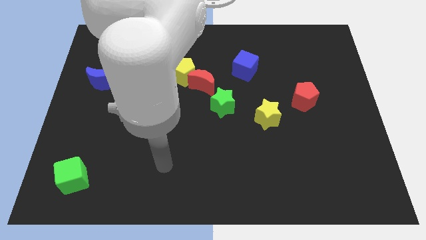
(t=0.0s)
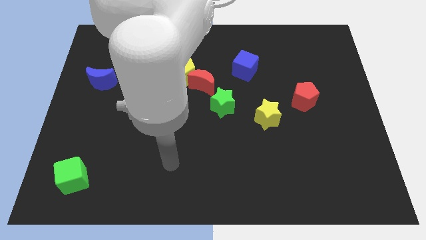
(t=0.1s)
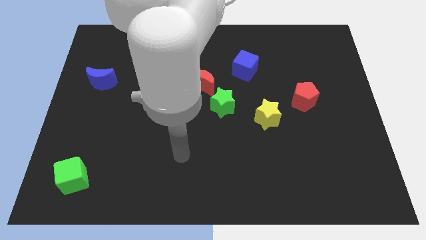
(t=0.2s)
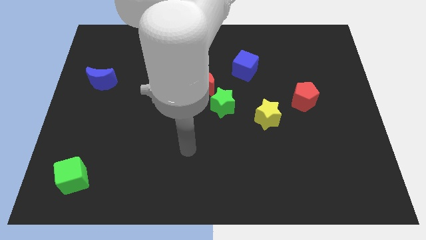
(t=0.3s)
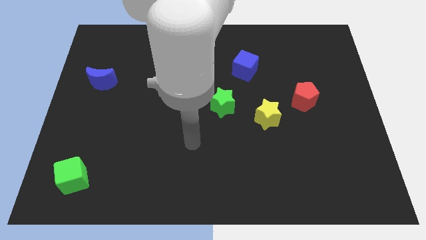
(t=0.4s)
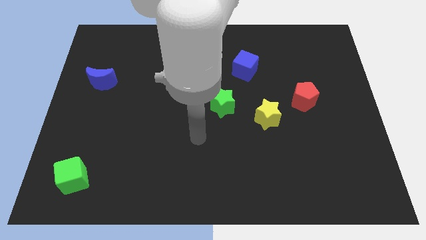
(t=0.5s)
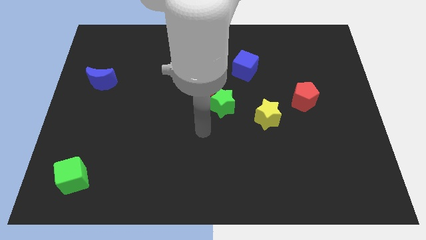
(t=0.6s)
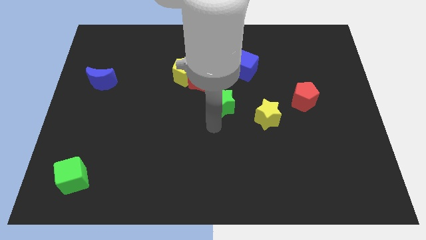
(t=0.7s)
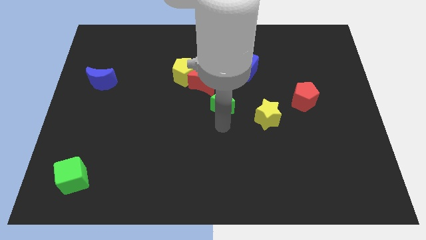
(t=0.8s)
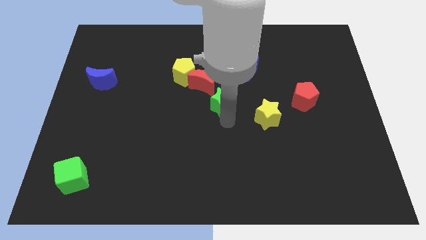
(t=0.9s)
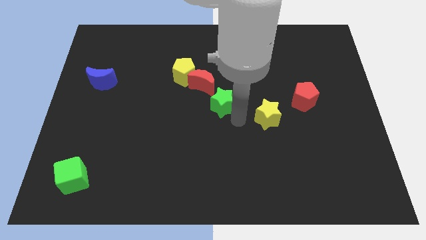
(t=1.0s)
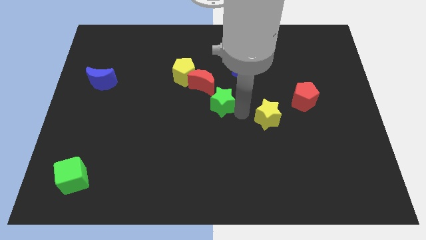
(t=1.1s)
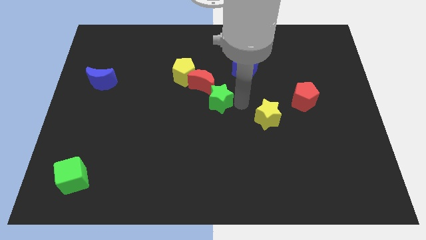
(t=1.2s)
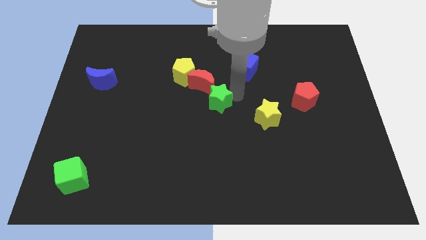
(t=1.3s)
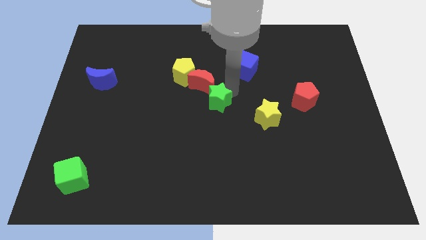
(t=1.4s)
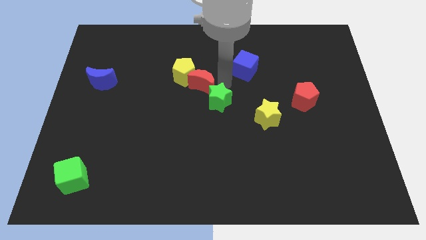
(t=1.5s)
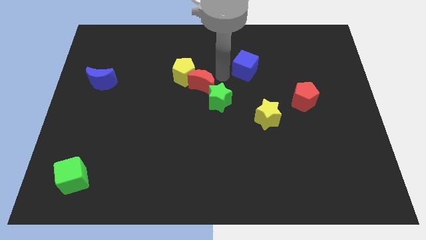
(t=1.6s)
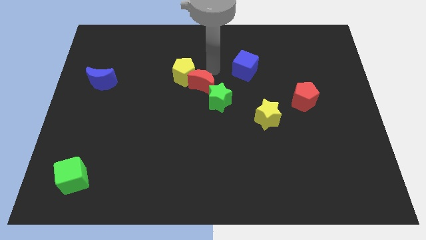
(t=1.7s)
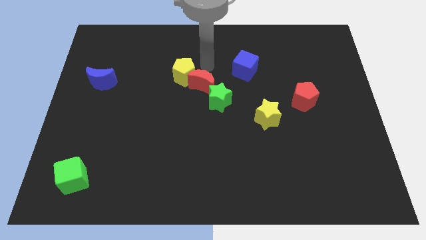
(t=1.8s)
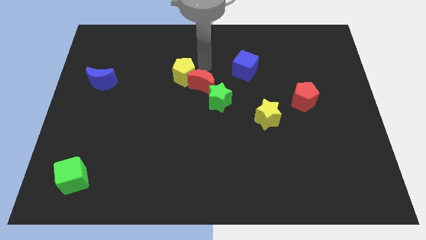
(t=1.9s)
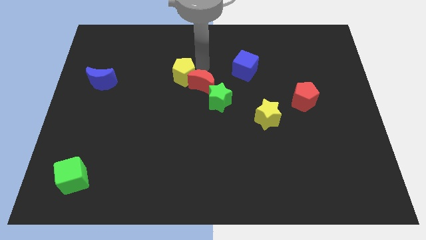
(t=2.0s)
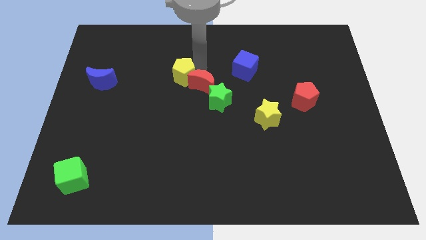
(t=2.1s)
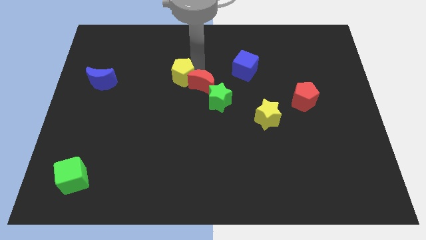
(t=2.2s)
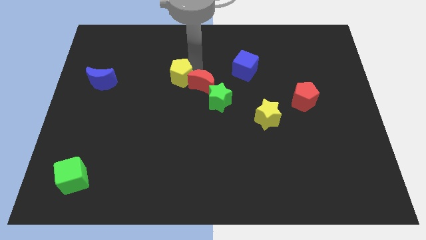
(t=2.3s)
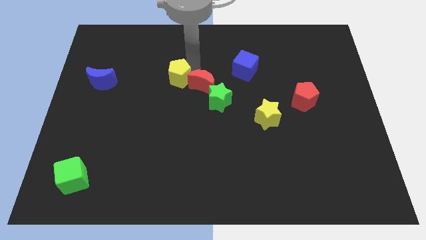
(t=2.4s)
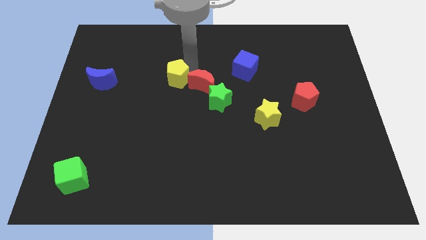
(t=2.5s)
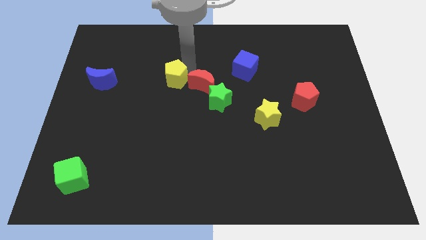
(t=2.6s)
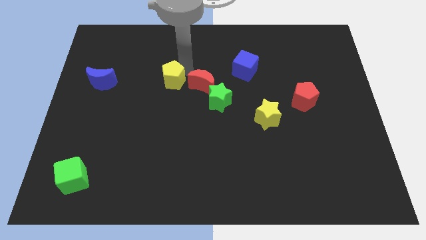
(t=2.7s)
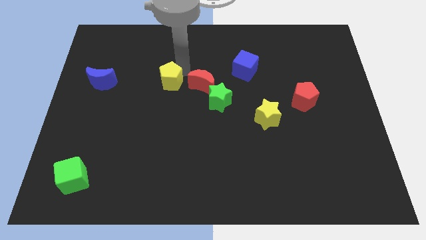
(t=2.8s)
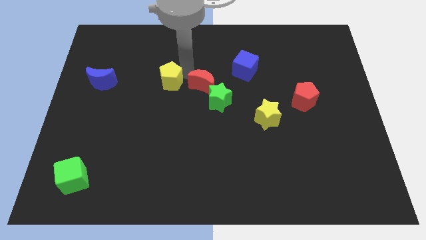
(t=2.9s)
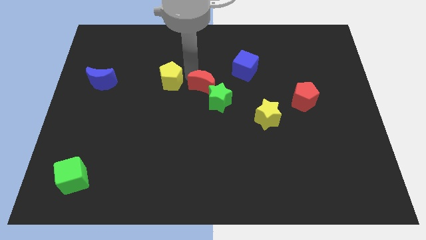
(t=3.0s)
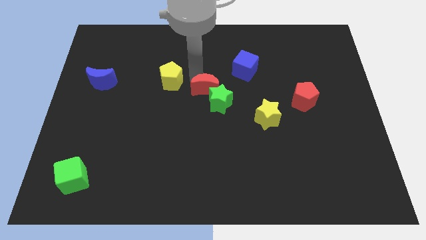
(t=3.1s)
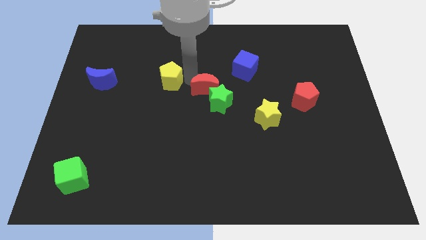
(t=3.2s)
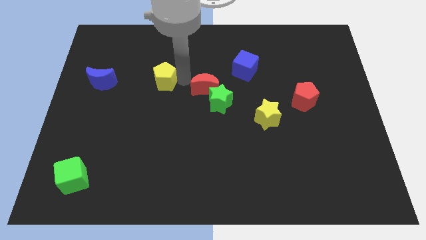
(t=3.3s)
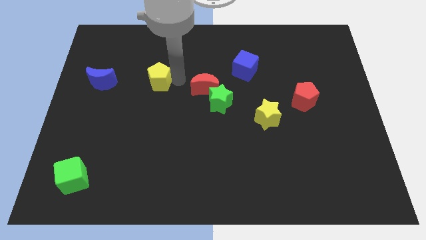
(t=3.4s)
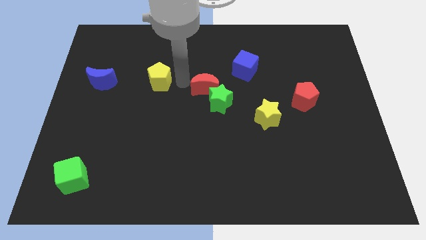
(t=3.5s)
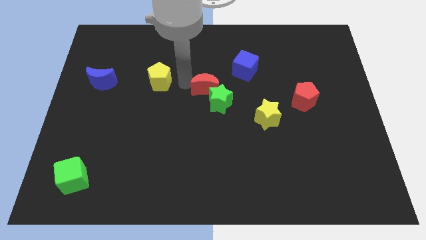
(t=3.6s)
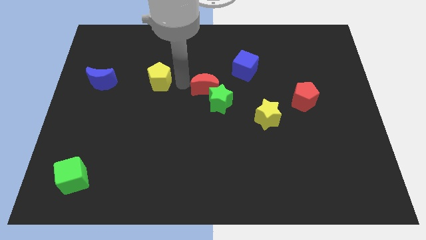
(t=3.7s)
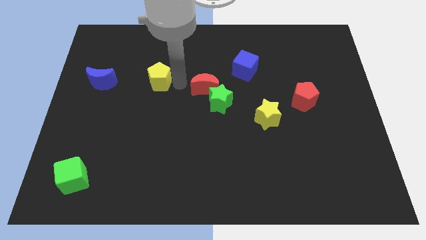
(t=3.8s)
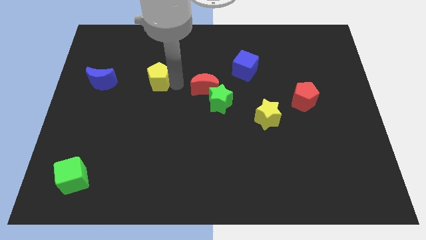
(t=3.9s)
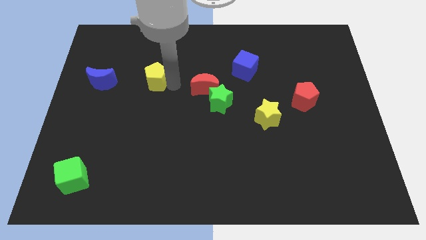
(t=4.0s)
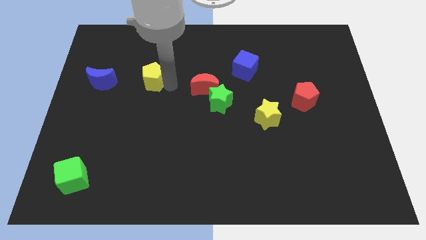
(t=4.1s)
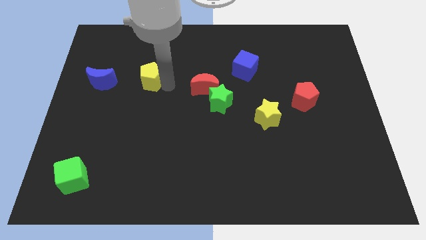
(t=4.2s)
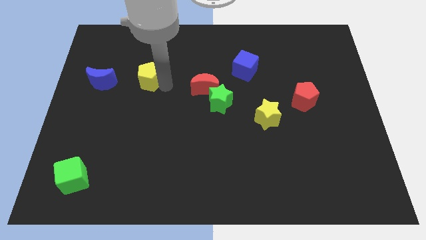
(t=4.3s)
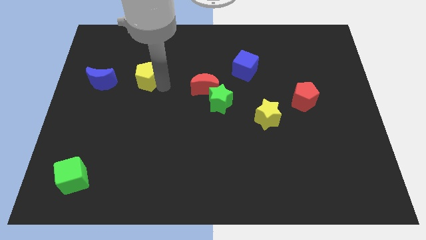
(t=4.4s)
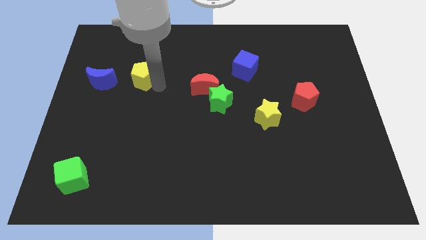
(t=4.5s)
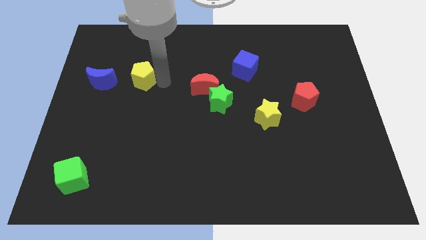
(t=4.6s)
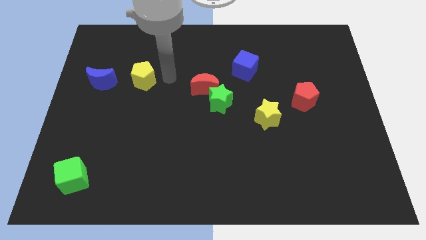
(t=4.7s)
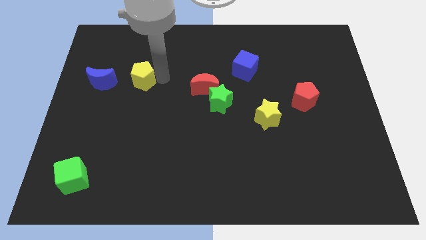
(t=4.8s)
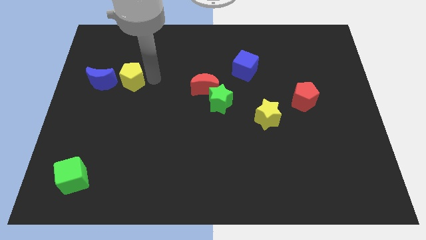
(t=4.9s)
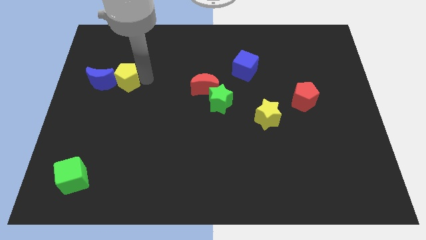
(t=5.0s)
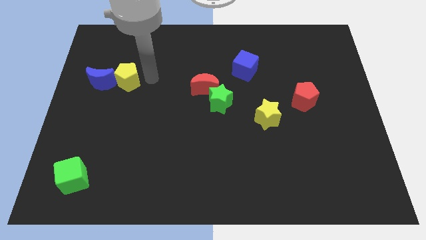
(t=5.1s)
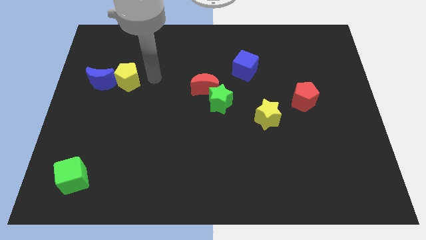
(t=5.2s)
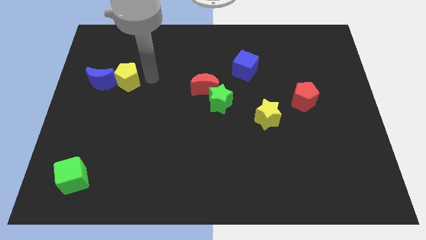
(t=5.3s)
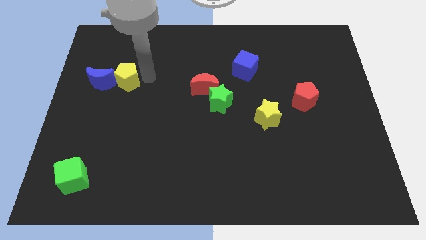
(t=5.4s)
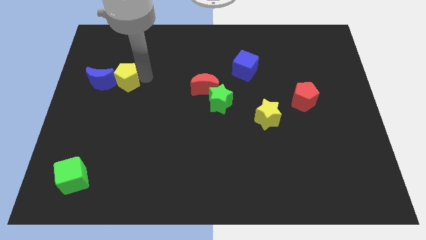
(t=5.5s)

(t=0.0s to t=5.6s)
put the yellow pentagon to the blue moon

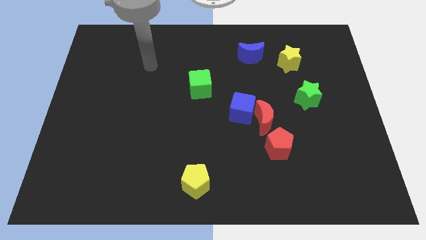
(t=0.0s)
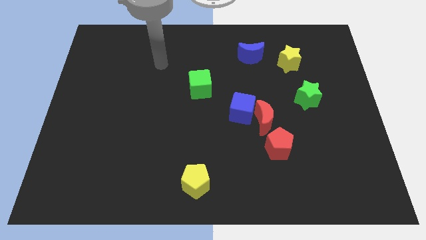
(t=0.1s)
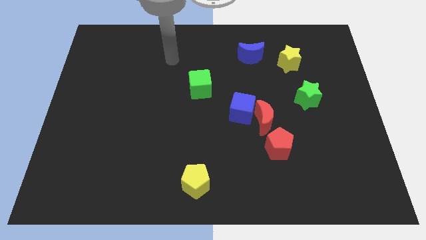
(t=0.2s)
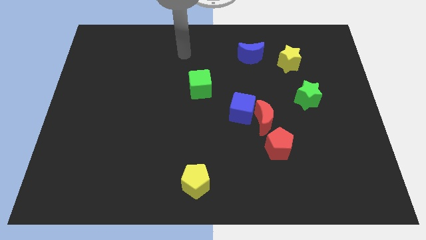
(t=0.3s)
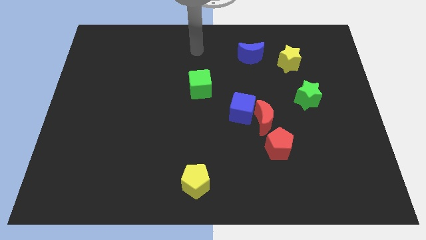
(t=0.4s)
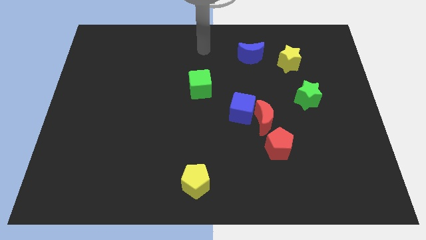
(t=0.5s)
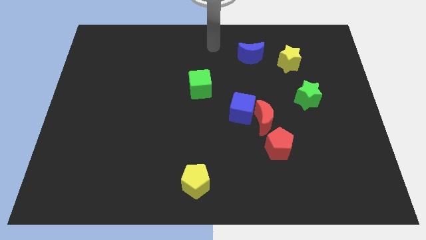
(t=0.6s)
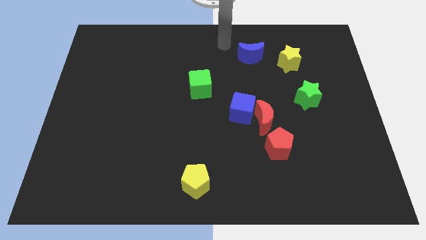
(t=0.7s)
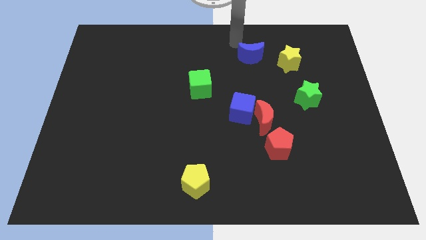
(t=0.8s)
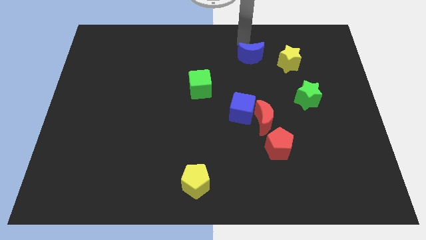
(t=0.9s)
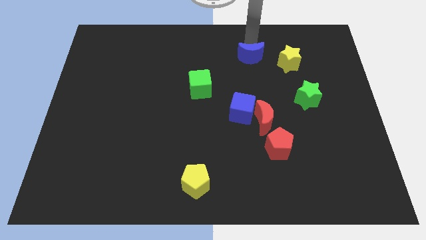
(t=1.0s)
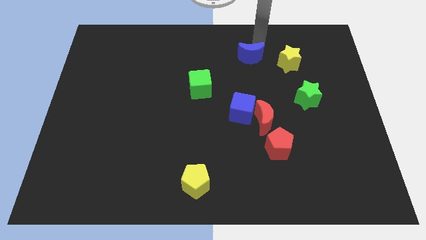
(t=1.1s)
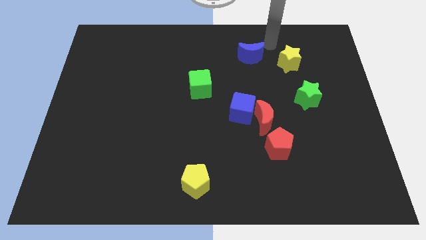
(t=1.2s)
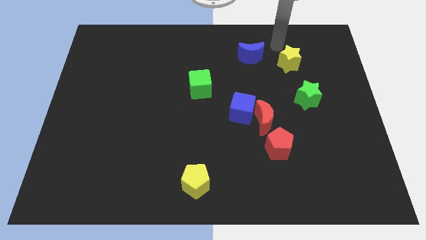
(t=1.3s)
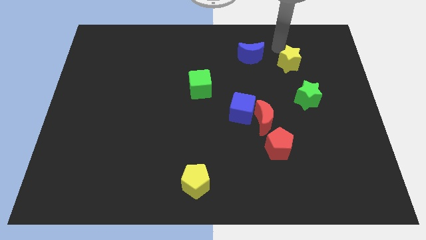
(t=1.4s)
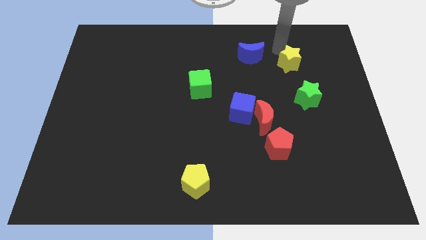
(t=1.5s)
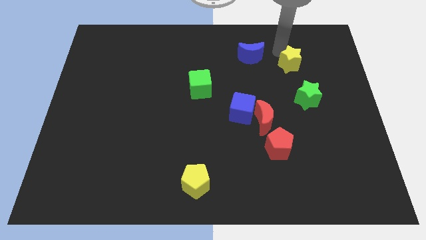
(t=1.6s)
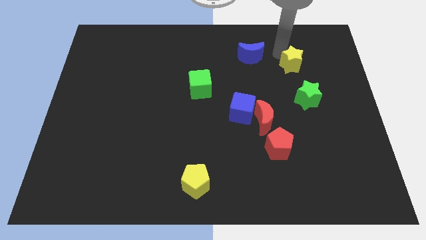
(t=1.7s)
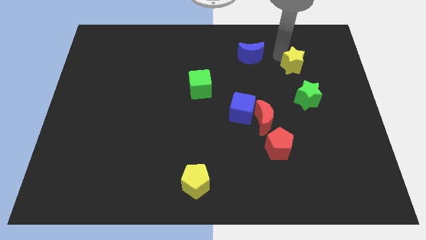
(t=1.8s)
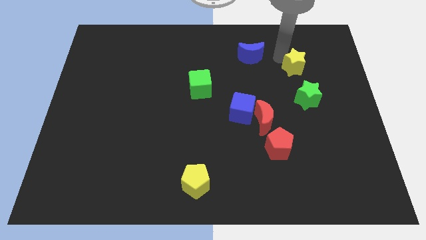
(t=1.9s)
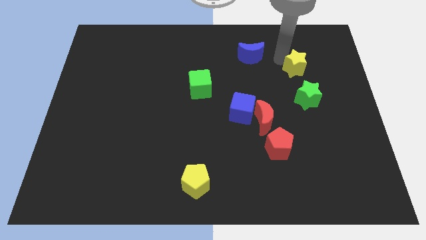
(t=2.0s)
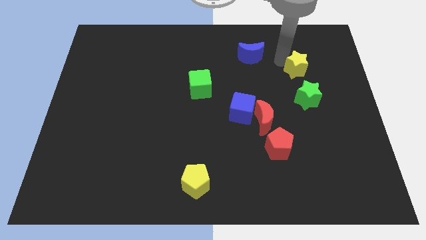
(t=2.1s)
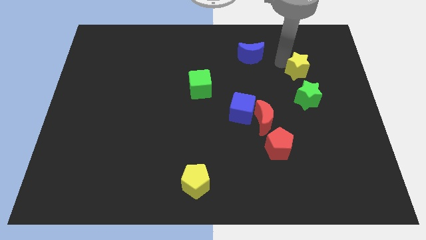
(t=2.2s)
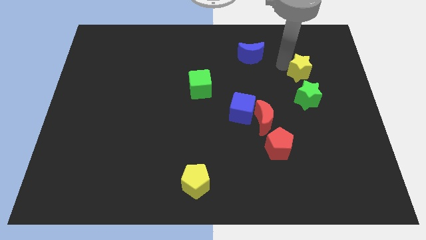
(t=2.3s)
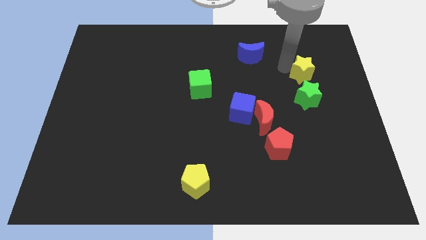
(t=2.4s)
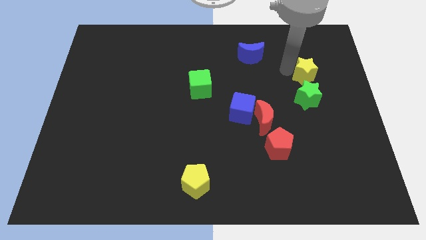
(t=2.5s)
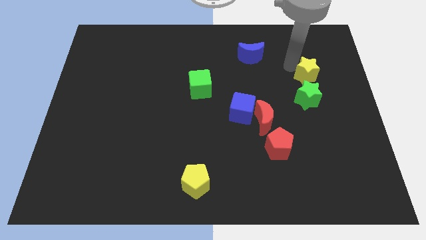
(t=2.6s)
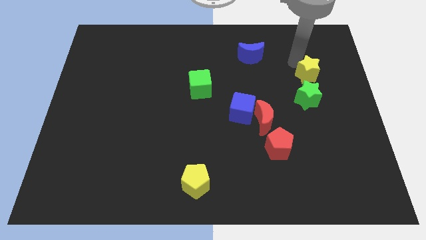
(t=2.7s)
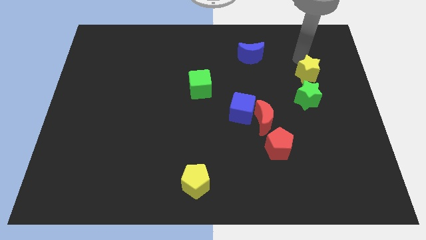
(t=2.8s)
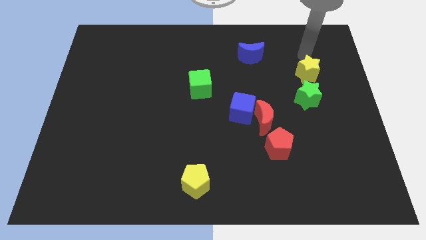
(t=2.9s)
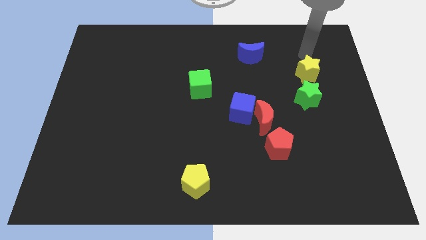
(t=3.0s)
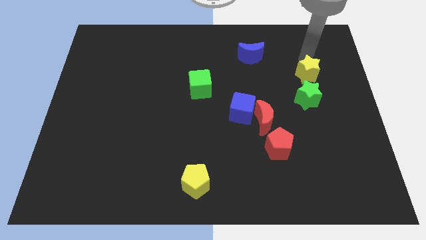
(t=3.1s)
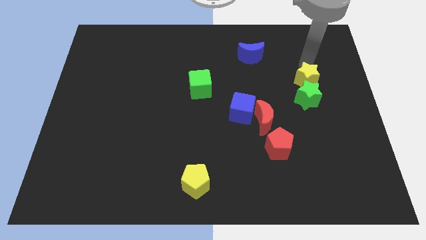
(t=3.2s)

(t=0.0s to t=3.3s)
move the yellow star close to the green star
